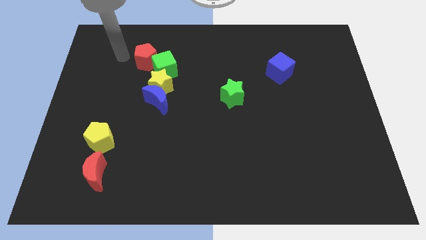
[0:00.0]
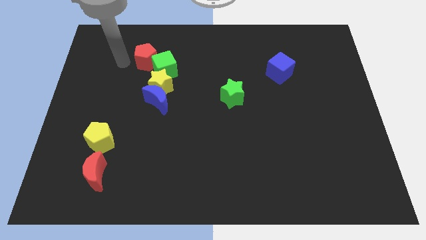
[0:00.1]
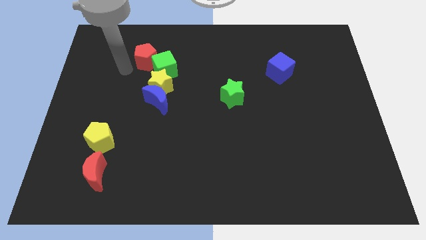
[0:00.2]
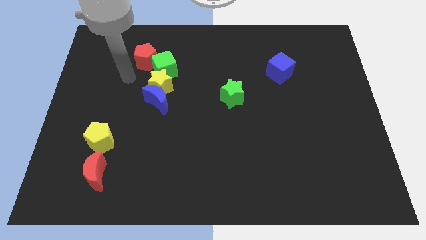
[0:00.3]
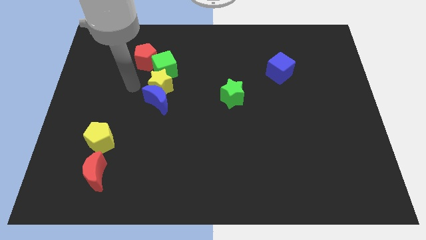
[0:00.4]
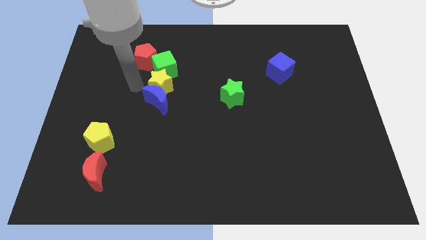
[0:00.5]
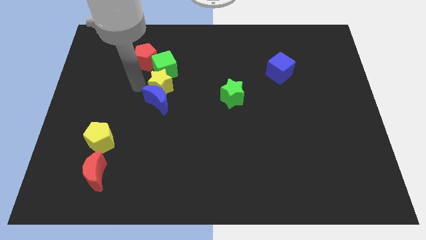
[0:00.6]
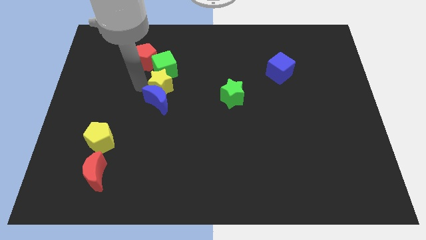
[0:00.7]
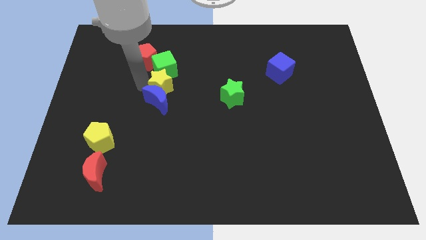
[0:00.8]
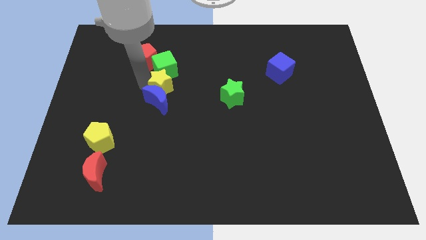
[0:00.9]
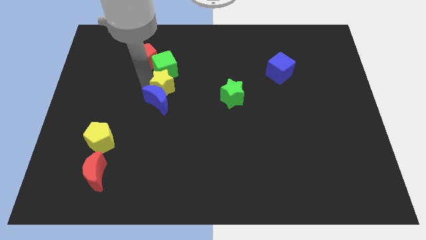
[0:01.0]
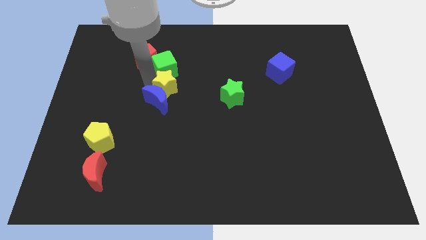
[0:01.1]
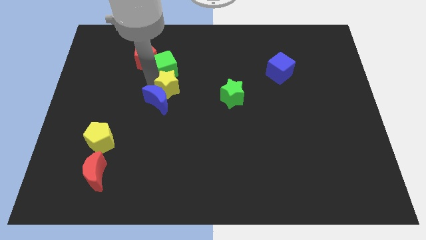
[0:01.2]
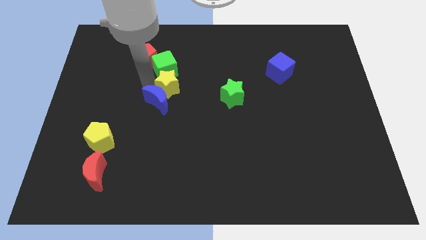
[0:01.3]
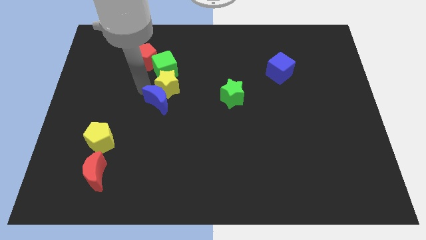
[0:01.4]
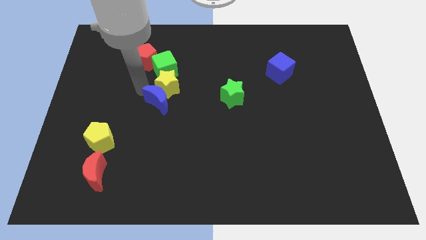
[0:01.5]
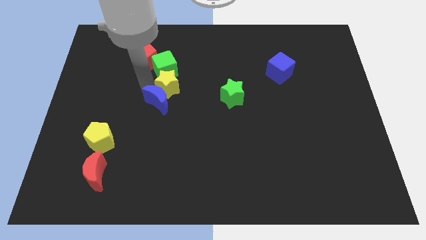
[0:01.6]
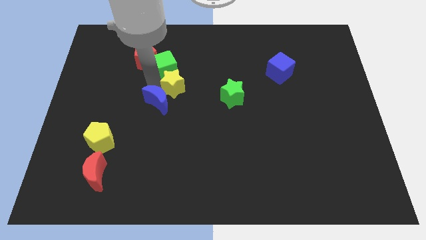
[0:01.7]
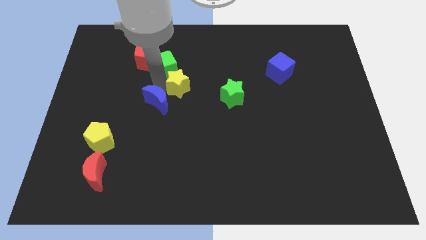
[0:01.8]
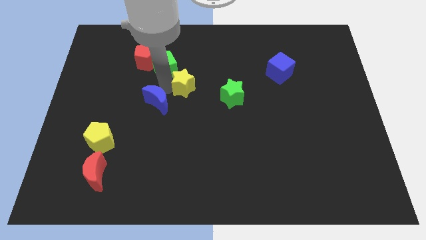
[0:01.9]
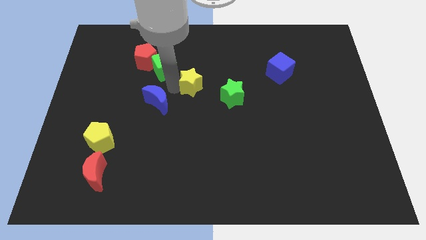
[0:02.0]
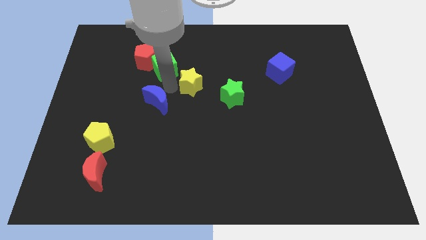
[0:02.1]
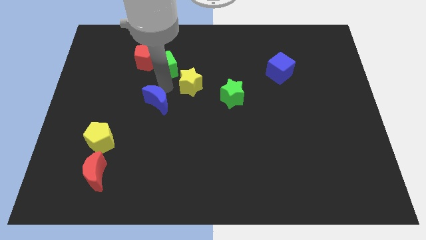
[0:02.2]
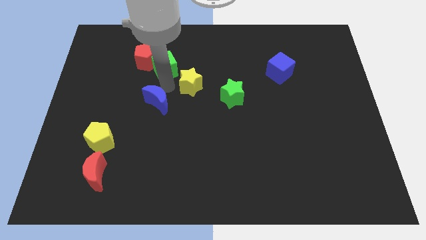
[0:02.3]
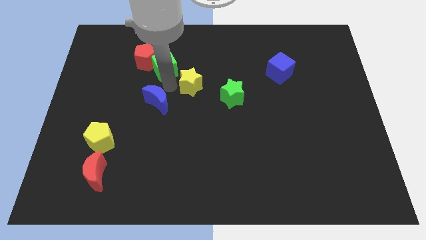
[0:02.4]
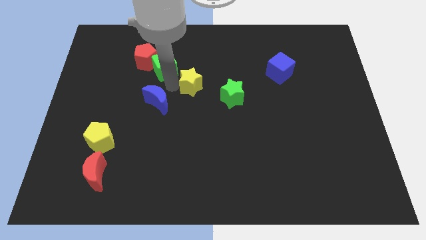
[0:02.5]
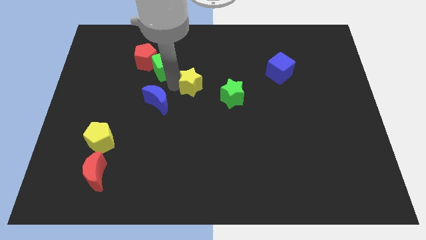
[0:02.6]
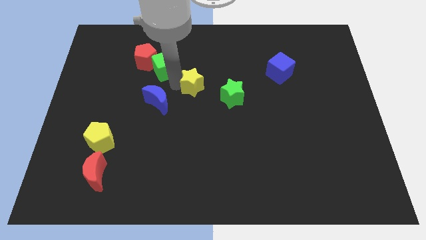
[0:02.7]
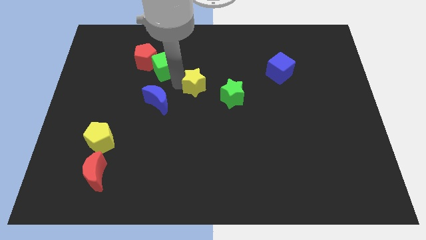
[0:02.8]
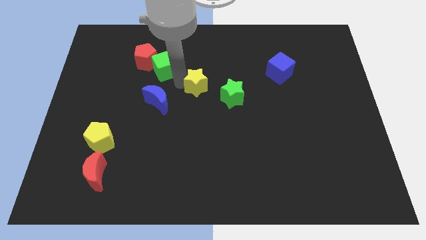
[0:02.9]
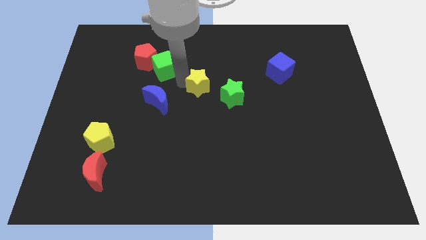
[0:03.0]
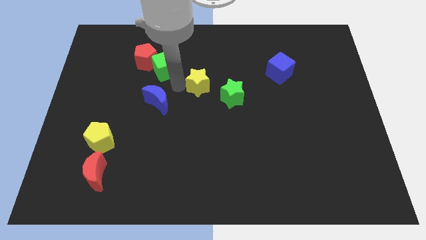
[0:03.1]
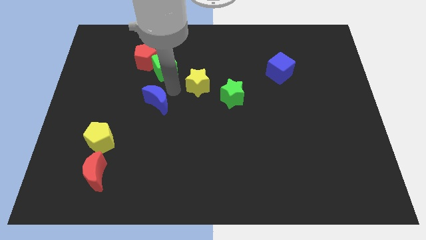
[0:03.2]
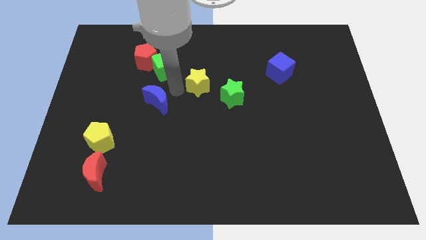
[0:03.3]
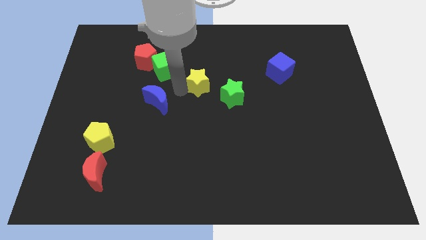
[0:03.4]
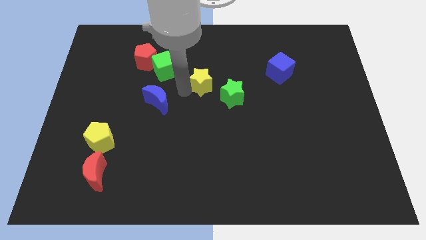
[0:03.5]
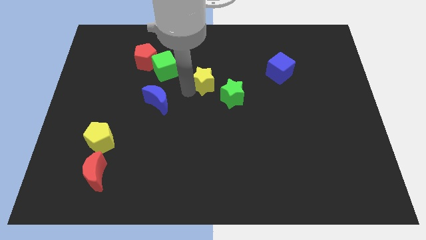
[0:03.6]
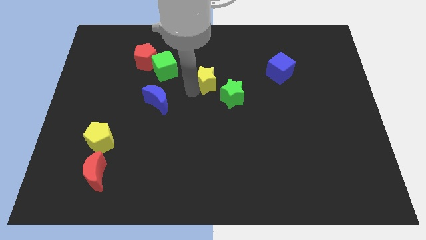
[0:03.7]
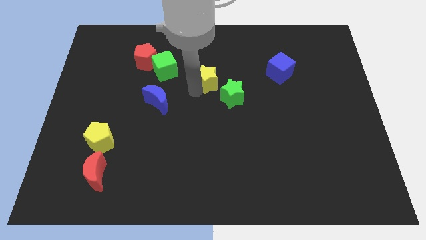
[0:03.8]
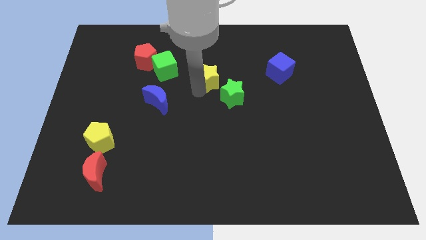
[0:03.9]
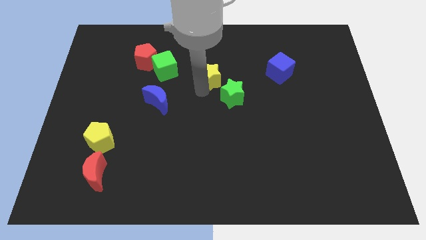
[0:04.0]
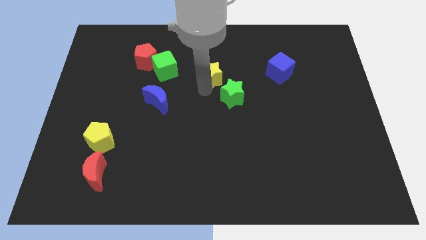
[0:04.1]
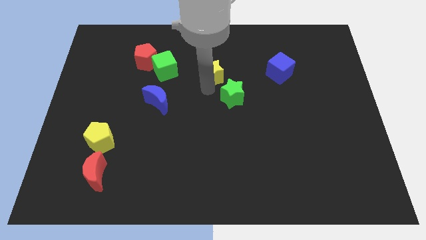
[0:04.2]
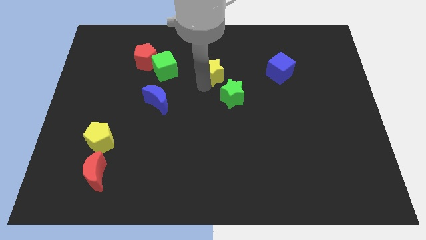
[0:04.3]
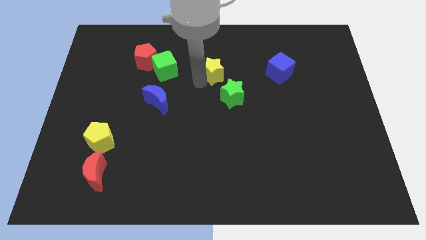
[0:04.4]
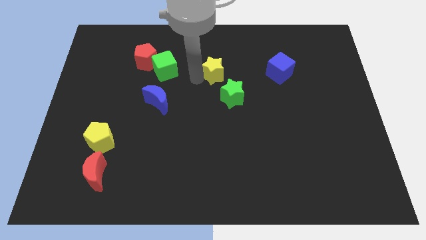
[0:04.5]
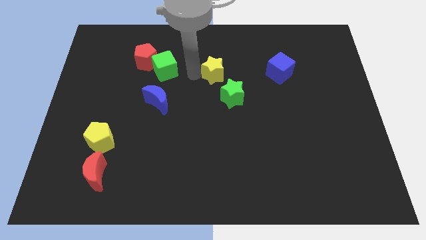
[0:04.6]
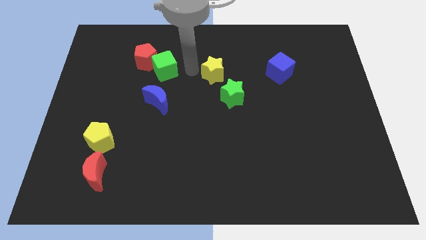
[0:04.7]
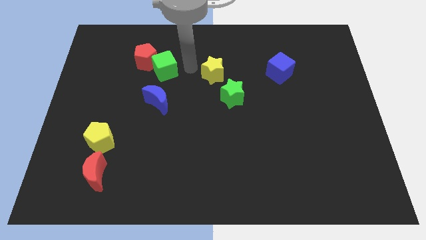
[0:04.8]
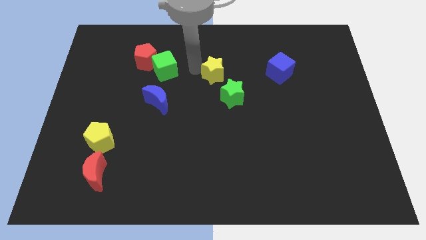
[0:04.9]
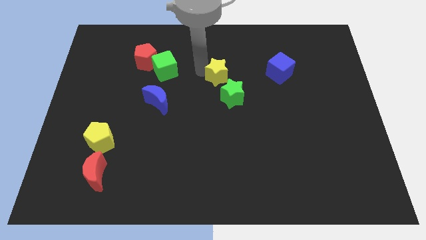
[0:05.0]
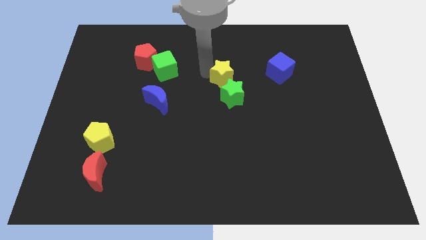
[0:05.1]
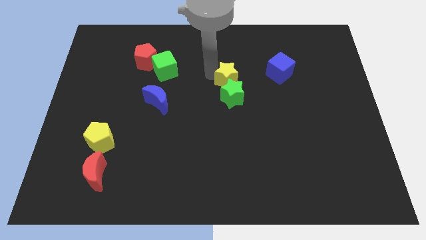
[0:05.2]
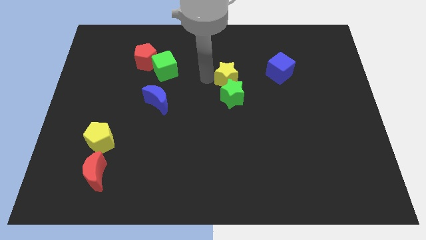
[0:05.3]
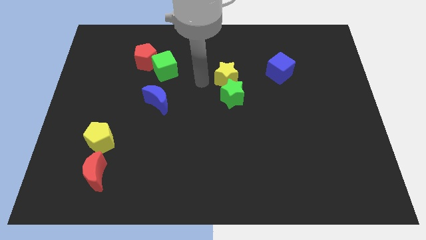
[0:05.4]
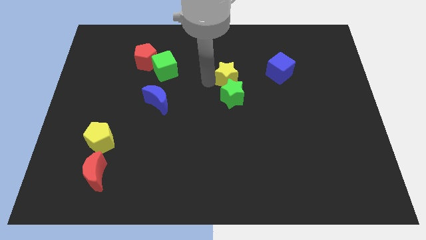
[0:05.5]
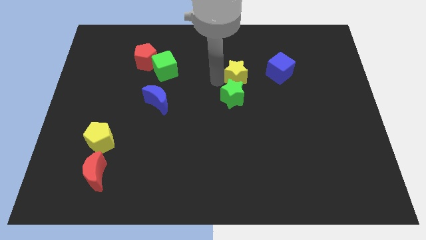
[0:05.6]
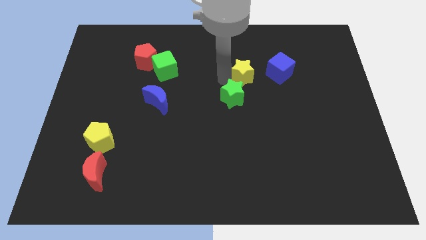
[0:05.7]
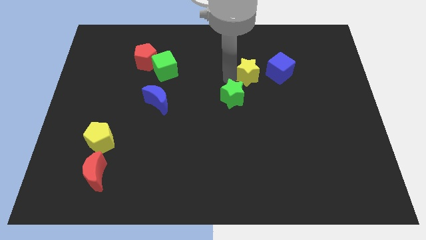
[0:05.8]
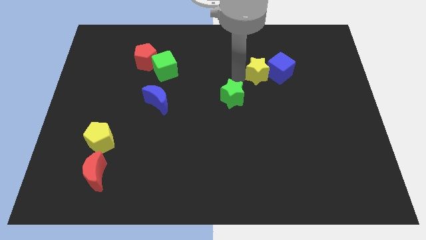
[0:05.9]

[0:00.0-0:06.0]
push the yellow star towards the blue cube

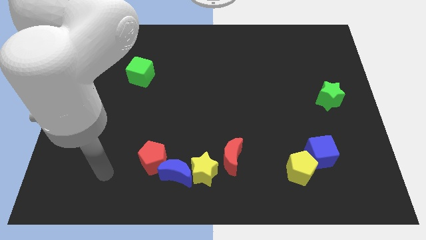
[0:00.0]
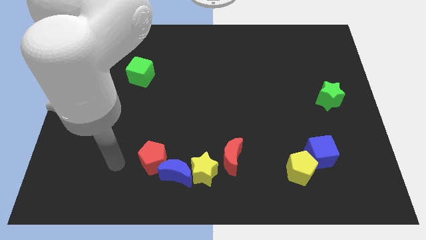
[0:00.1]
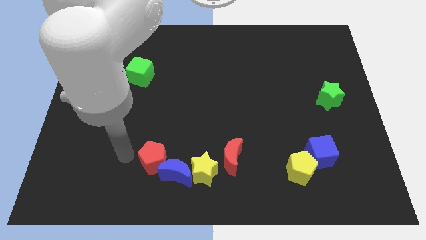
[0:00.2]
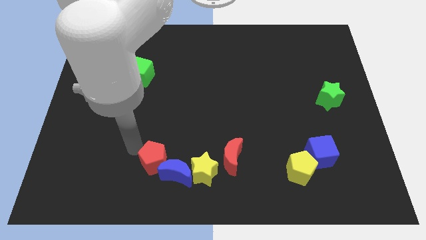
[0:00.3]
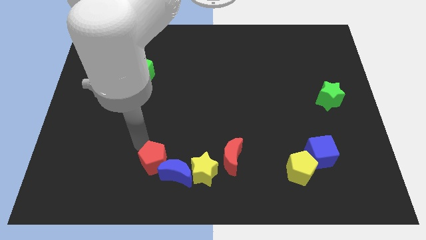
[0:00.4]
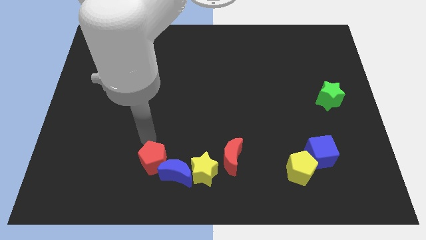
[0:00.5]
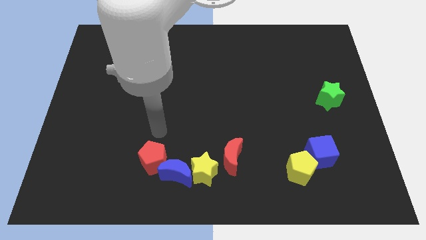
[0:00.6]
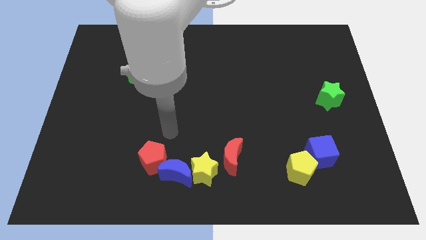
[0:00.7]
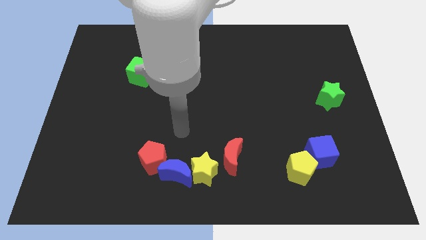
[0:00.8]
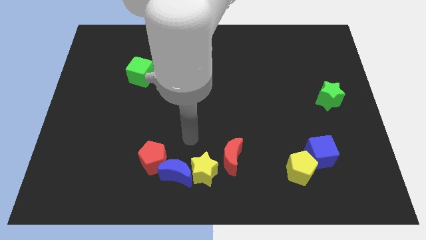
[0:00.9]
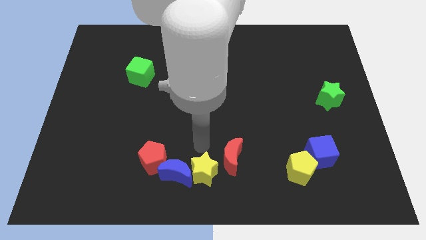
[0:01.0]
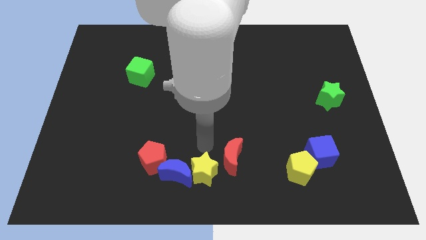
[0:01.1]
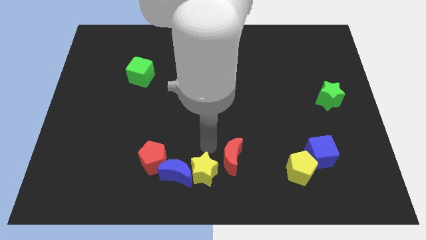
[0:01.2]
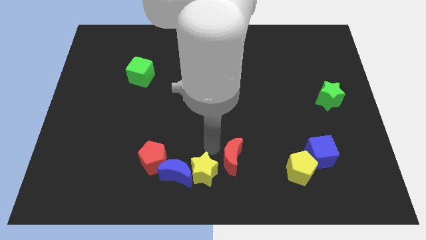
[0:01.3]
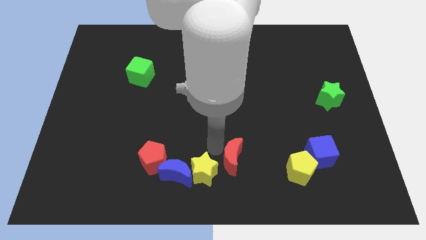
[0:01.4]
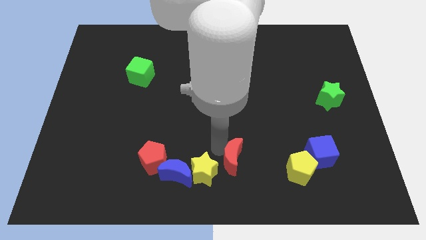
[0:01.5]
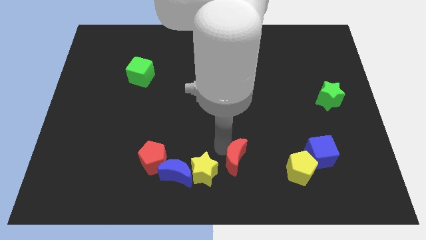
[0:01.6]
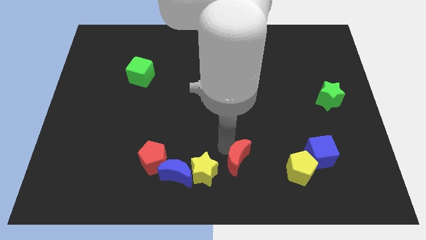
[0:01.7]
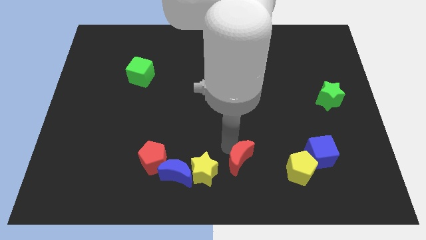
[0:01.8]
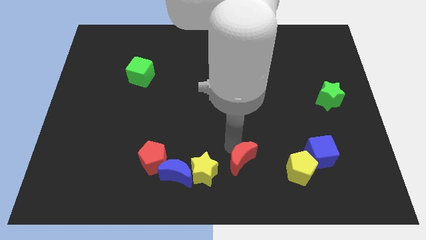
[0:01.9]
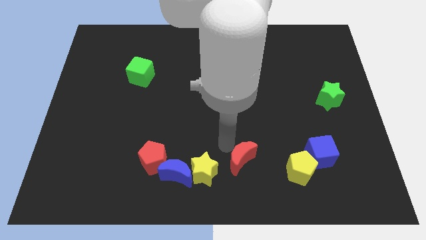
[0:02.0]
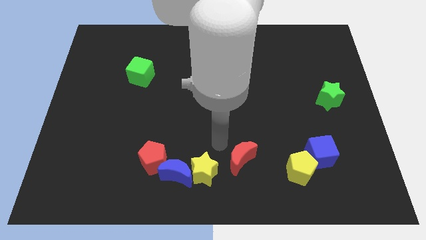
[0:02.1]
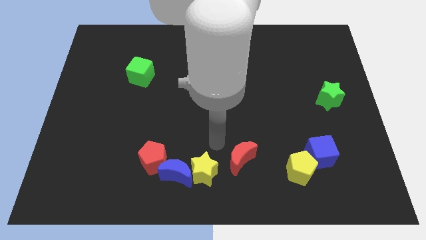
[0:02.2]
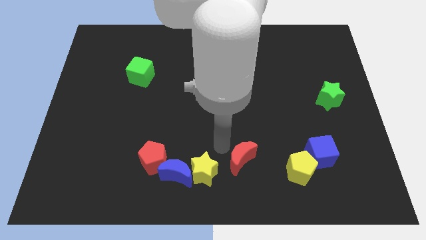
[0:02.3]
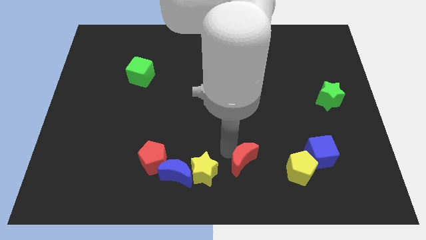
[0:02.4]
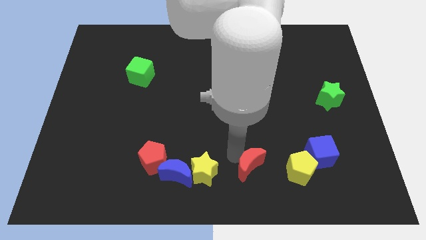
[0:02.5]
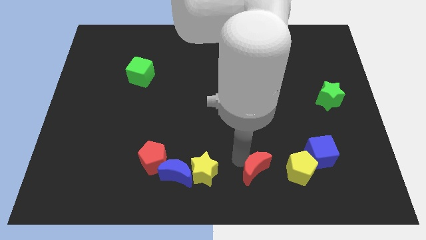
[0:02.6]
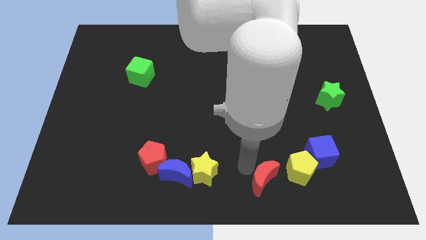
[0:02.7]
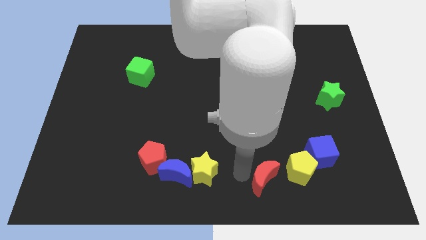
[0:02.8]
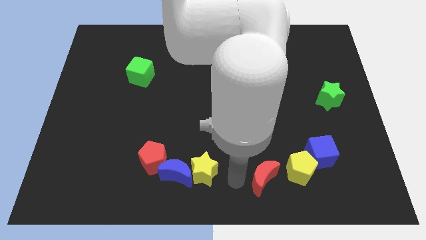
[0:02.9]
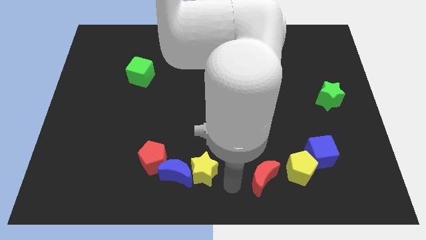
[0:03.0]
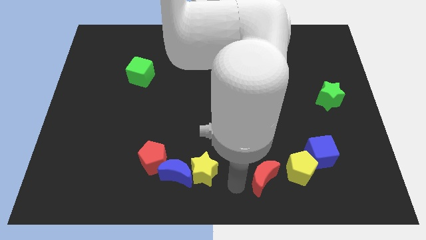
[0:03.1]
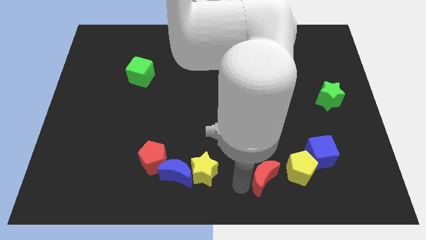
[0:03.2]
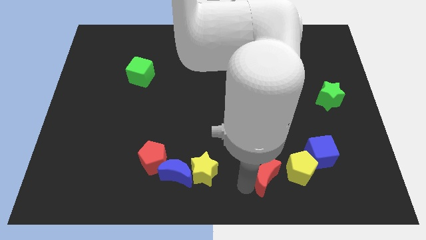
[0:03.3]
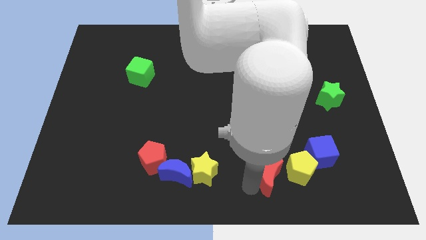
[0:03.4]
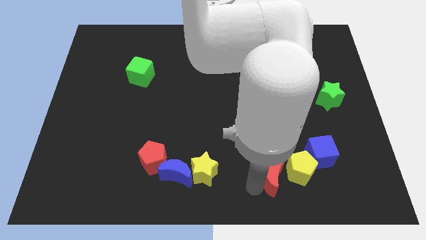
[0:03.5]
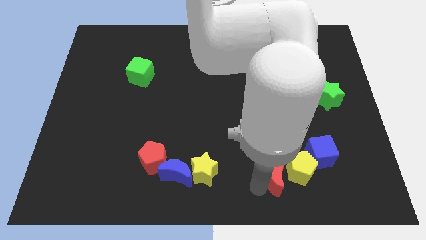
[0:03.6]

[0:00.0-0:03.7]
push the red moon close to the yellow pentagon
